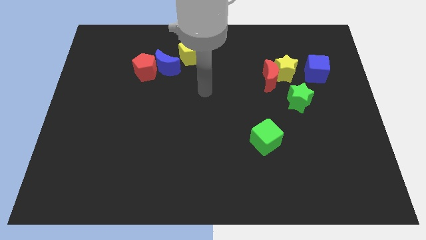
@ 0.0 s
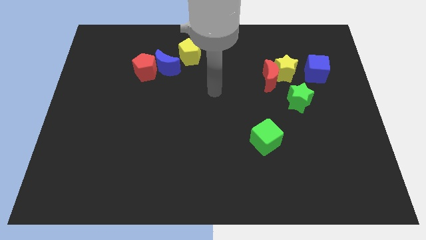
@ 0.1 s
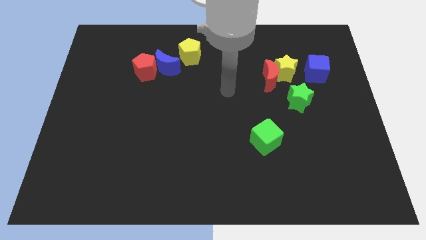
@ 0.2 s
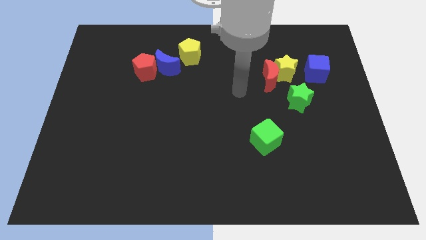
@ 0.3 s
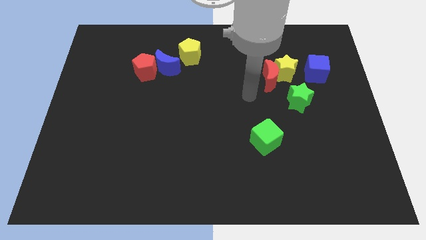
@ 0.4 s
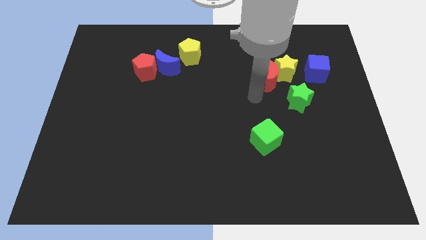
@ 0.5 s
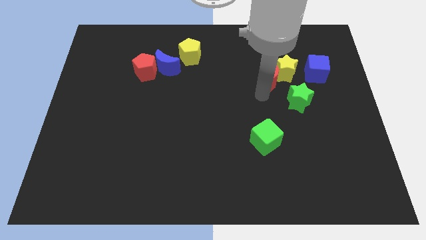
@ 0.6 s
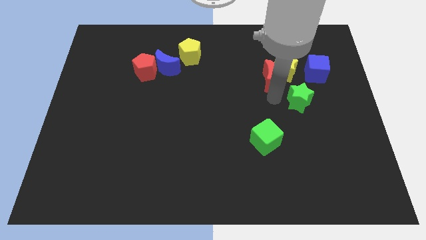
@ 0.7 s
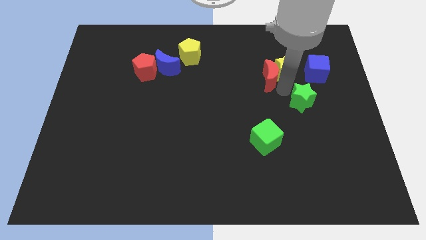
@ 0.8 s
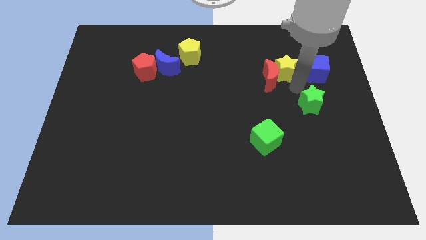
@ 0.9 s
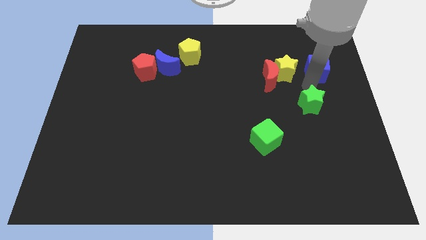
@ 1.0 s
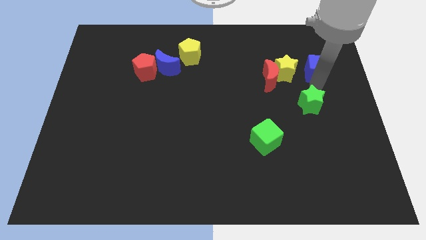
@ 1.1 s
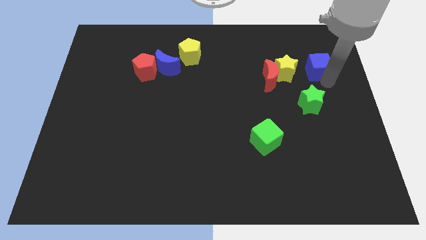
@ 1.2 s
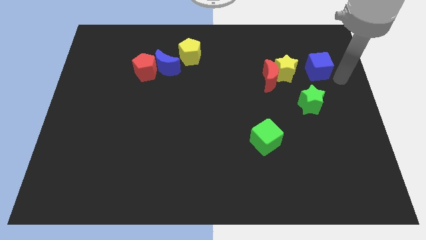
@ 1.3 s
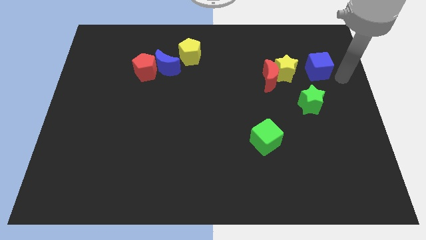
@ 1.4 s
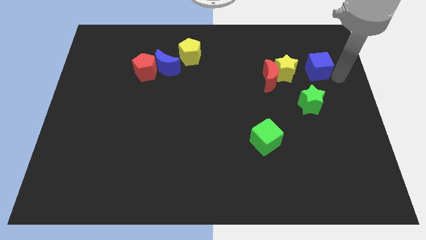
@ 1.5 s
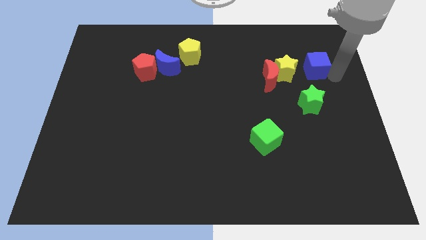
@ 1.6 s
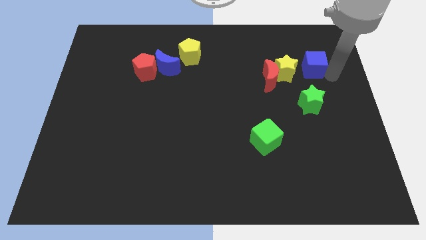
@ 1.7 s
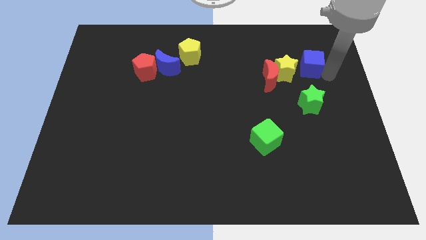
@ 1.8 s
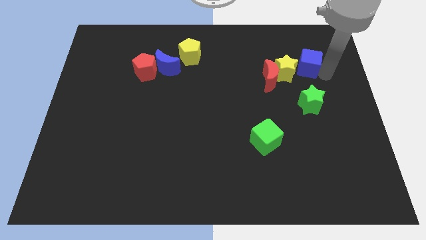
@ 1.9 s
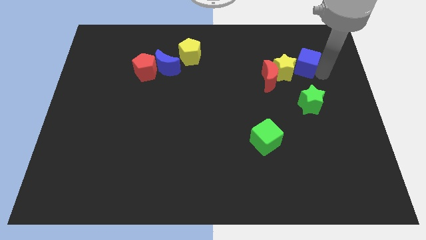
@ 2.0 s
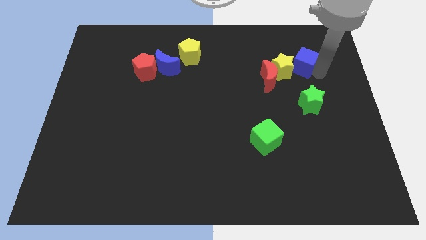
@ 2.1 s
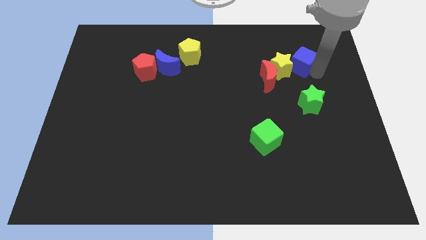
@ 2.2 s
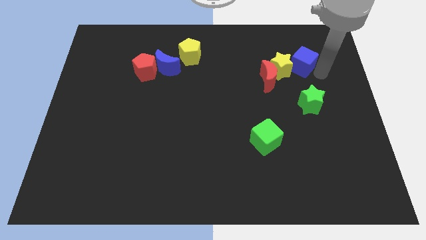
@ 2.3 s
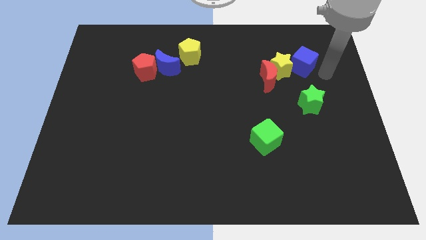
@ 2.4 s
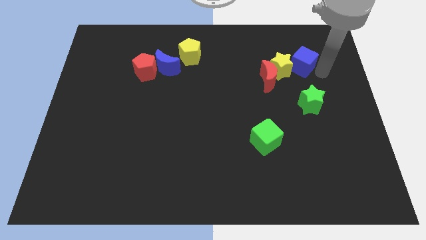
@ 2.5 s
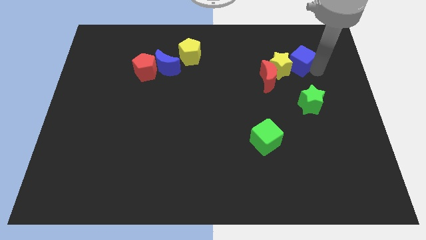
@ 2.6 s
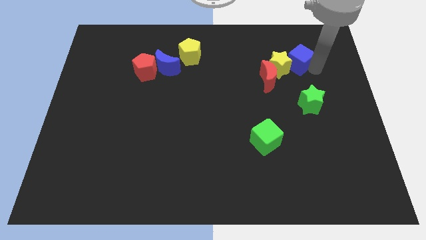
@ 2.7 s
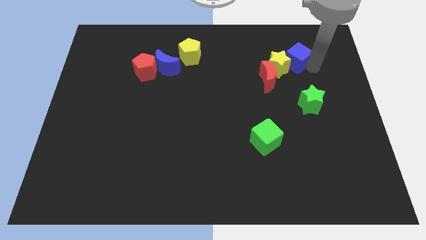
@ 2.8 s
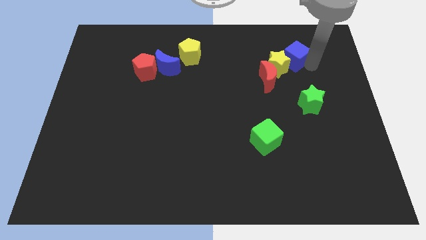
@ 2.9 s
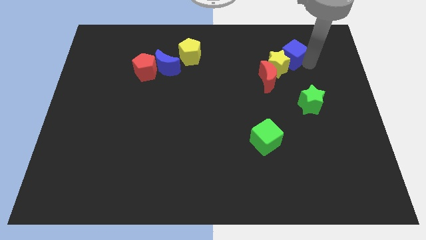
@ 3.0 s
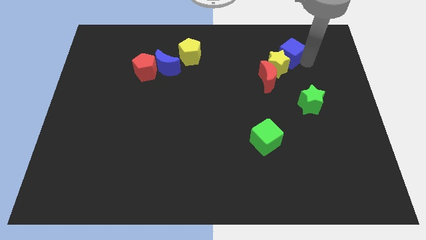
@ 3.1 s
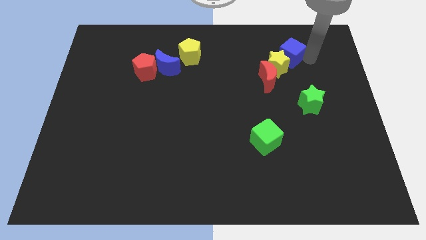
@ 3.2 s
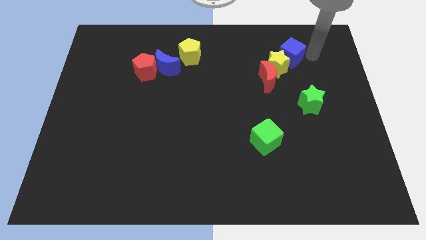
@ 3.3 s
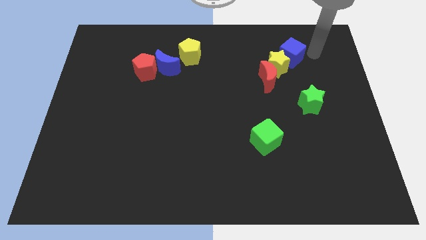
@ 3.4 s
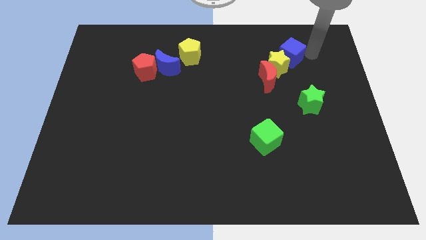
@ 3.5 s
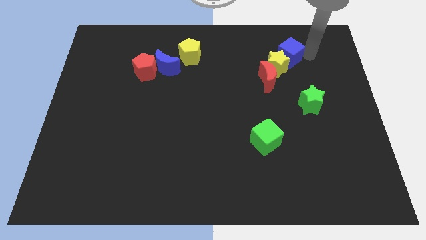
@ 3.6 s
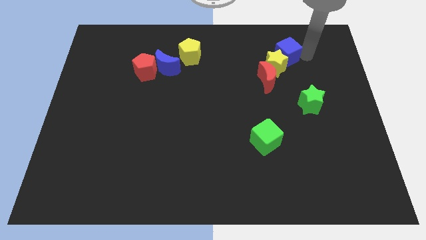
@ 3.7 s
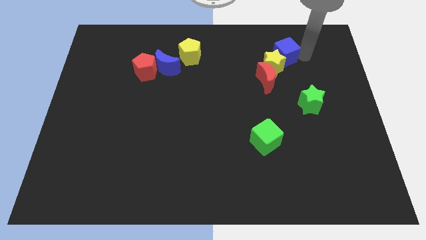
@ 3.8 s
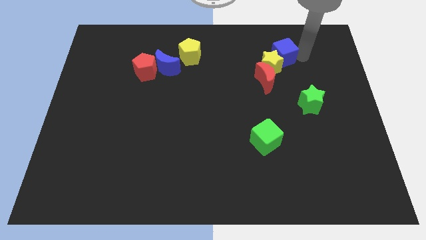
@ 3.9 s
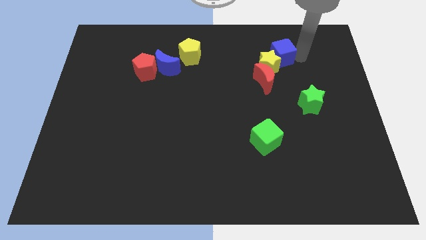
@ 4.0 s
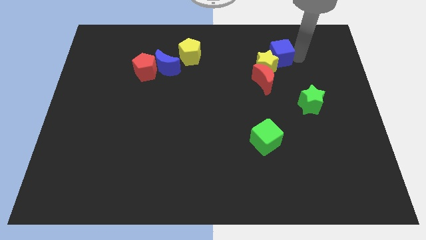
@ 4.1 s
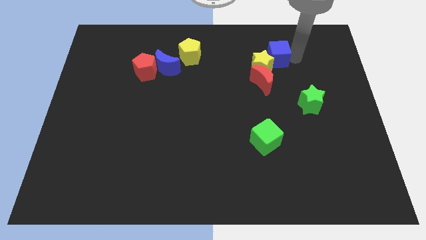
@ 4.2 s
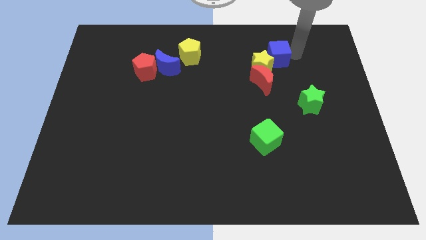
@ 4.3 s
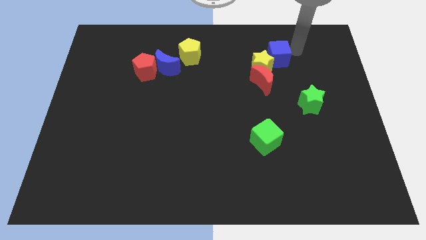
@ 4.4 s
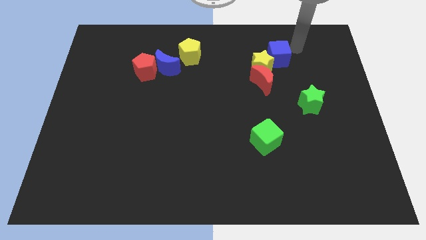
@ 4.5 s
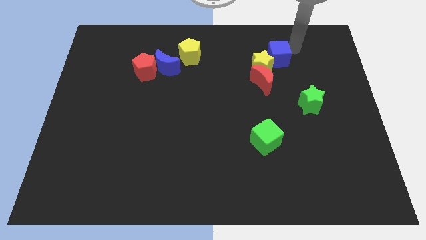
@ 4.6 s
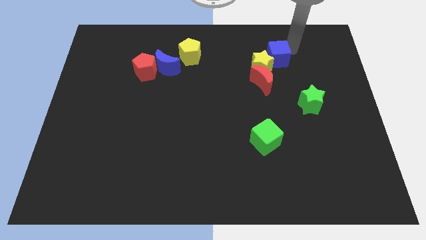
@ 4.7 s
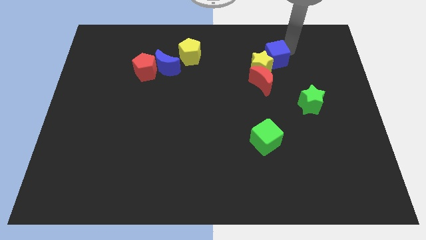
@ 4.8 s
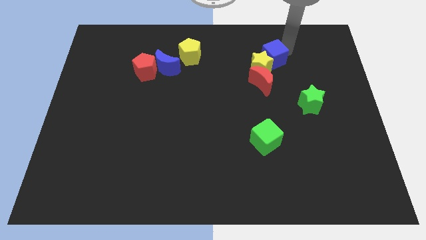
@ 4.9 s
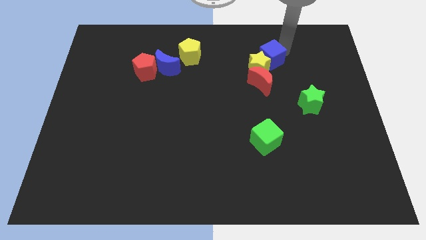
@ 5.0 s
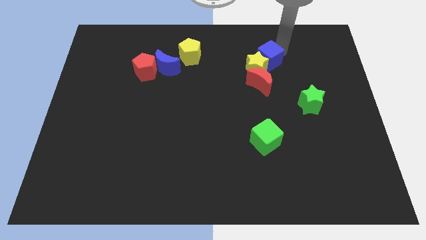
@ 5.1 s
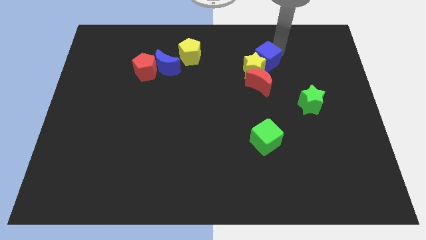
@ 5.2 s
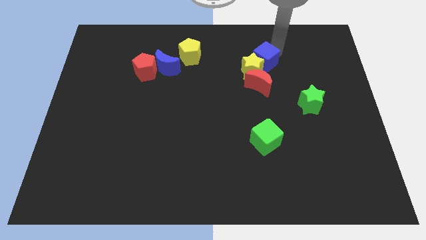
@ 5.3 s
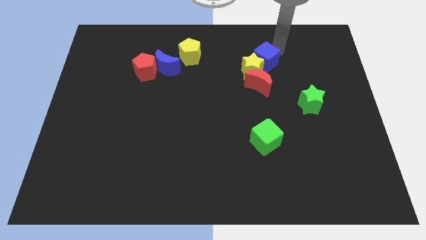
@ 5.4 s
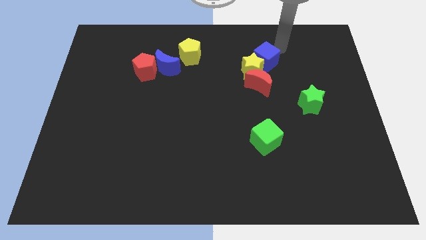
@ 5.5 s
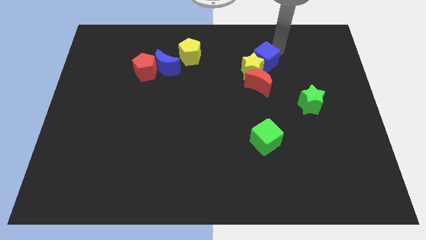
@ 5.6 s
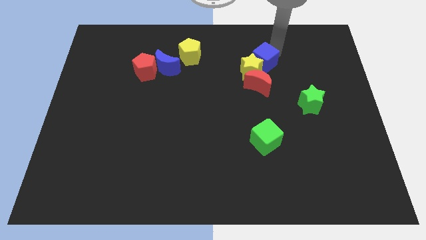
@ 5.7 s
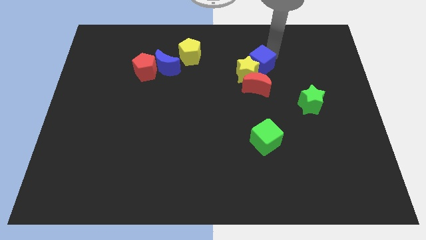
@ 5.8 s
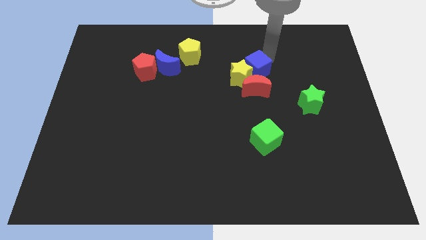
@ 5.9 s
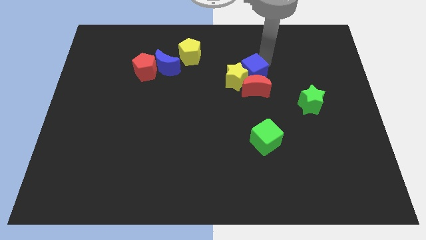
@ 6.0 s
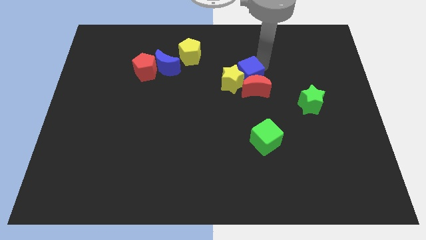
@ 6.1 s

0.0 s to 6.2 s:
move the blue cube to the middle of the board

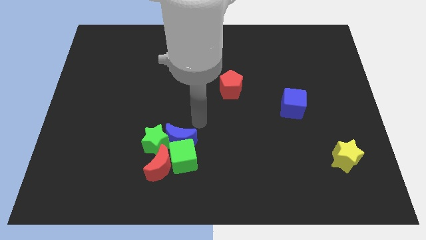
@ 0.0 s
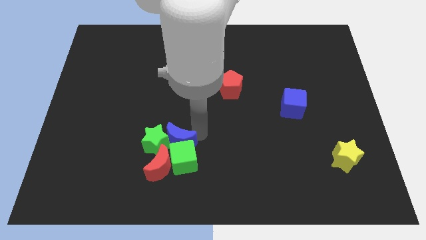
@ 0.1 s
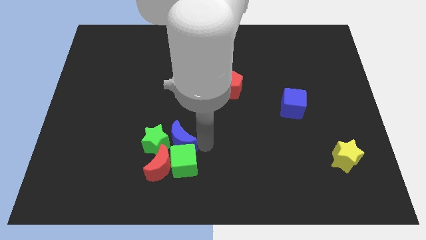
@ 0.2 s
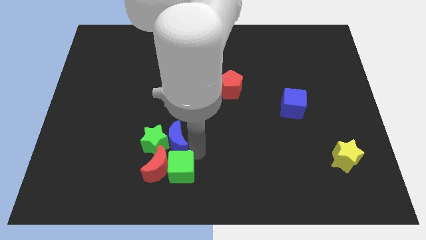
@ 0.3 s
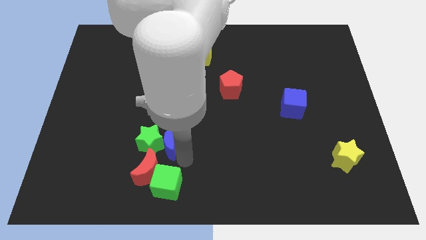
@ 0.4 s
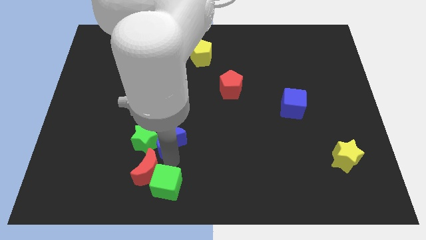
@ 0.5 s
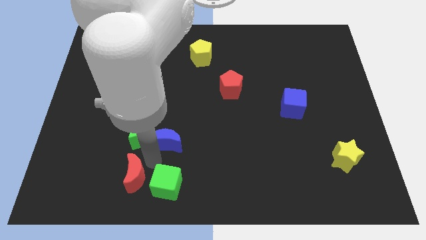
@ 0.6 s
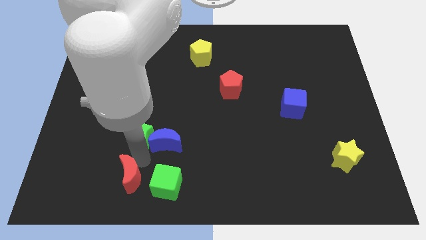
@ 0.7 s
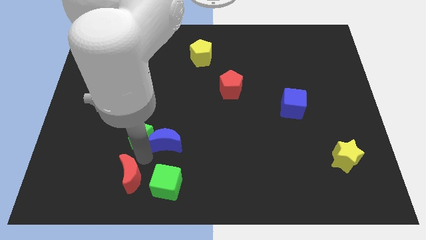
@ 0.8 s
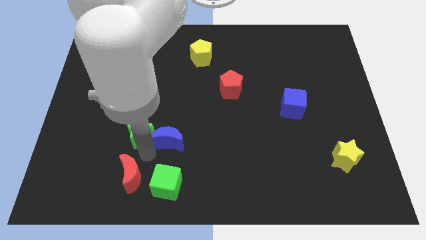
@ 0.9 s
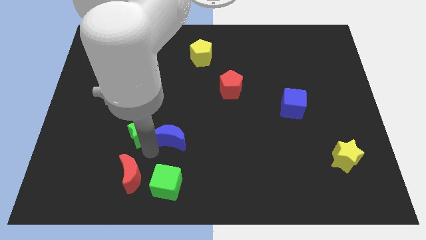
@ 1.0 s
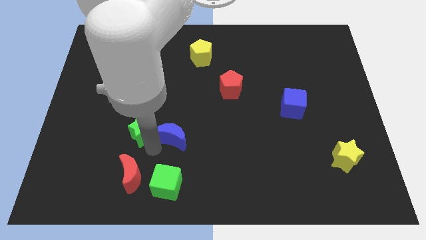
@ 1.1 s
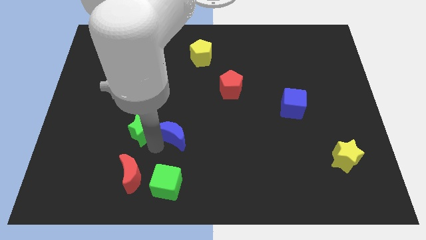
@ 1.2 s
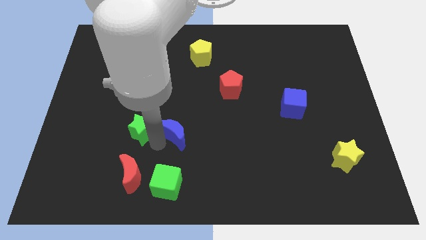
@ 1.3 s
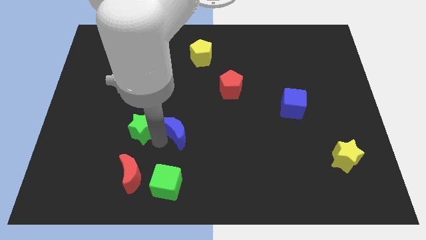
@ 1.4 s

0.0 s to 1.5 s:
put the blue moon to the middle of the board

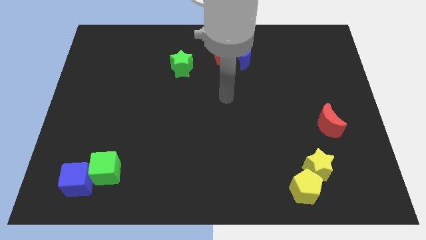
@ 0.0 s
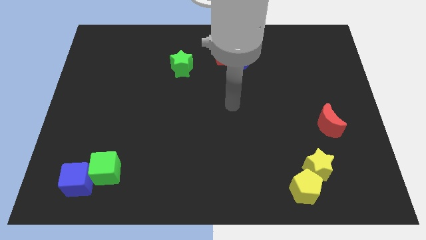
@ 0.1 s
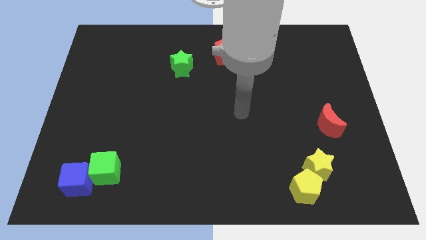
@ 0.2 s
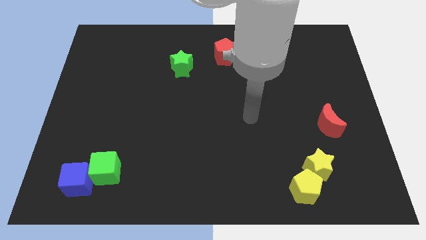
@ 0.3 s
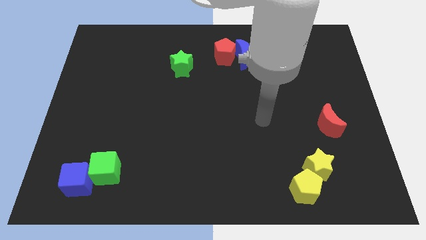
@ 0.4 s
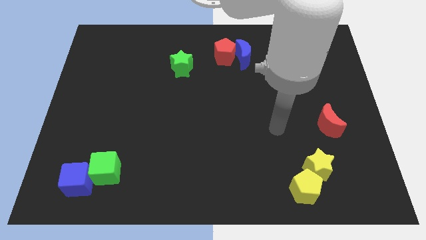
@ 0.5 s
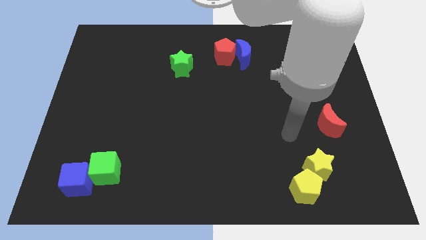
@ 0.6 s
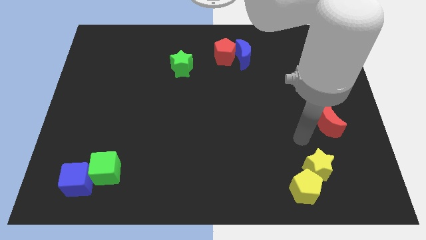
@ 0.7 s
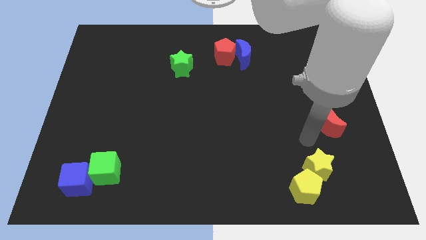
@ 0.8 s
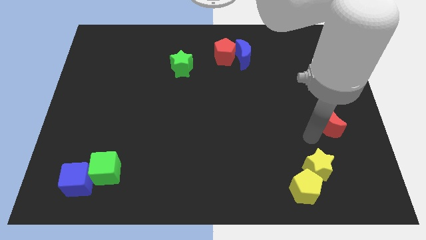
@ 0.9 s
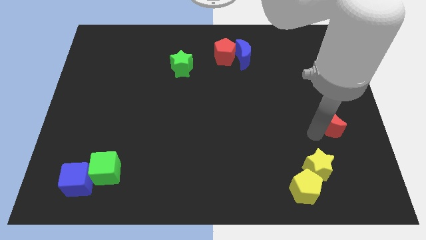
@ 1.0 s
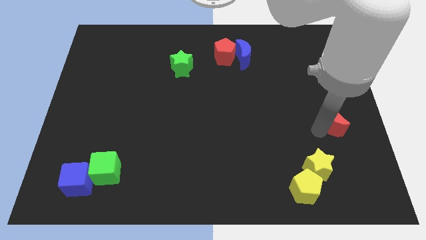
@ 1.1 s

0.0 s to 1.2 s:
move the red moon to the center right
